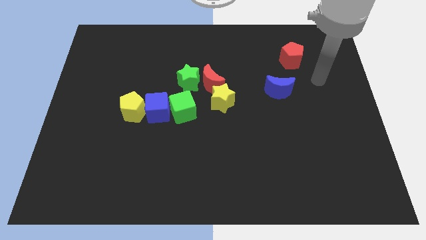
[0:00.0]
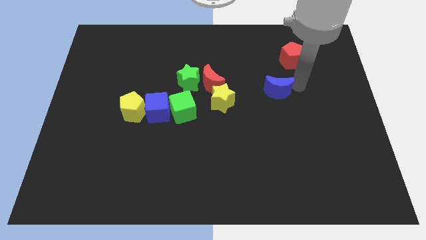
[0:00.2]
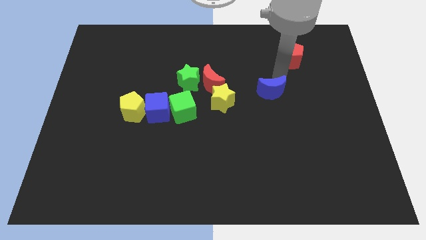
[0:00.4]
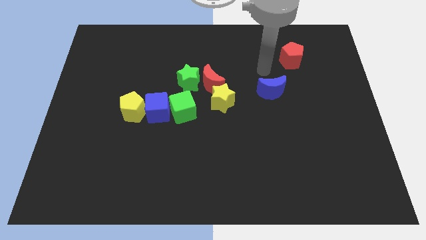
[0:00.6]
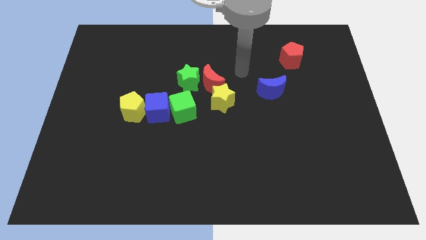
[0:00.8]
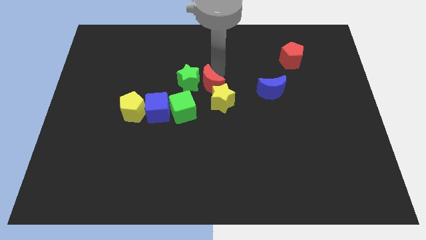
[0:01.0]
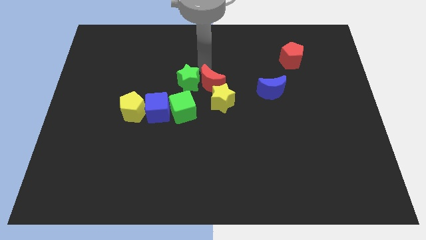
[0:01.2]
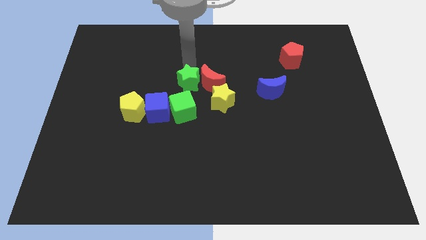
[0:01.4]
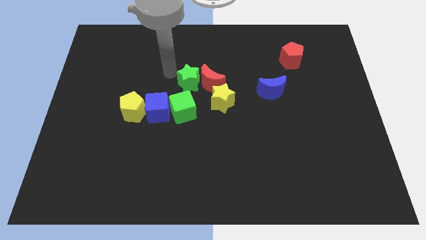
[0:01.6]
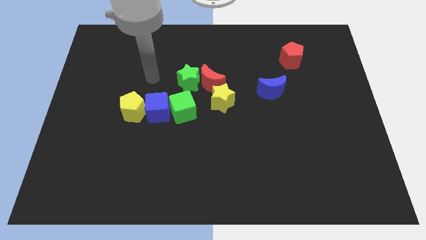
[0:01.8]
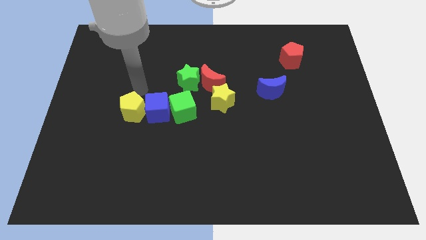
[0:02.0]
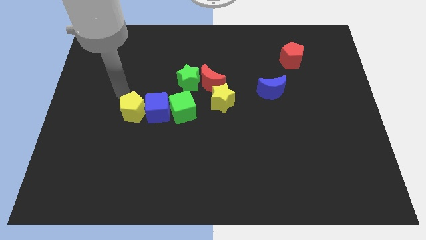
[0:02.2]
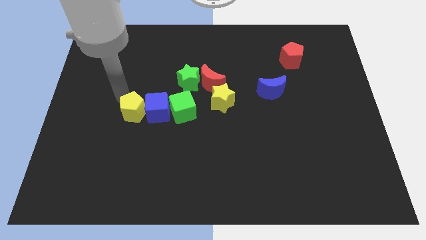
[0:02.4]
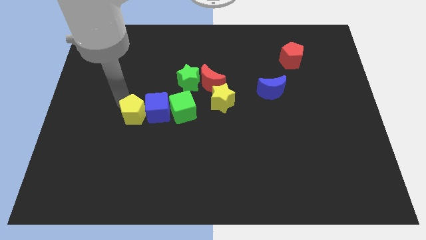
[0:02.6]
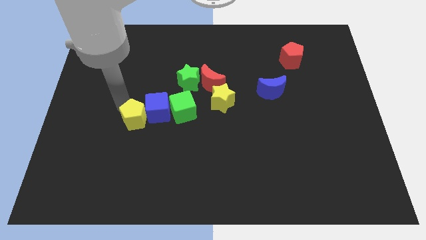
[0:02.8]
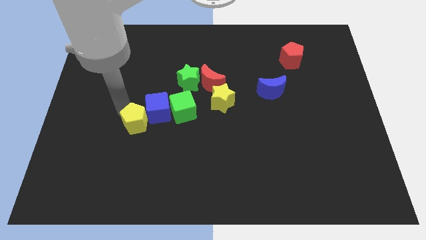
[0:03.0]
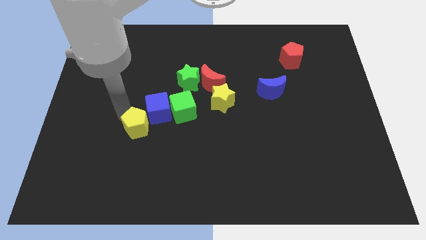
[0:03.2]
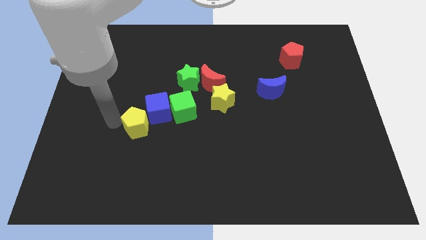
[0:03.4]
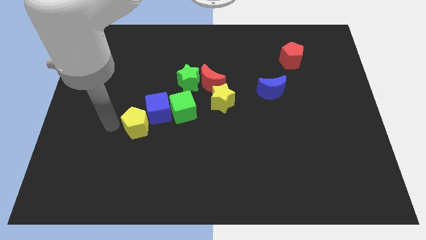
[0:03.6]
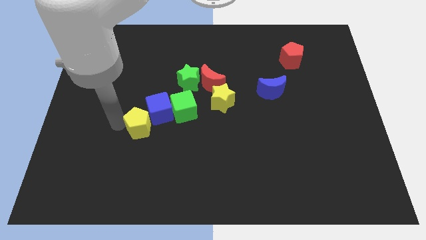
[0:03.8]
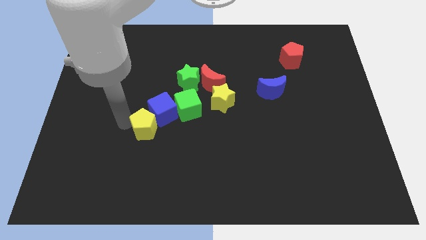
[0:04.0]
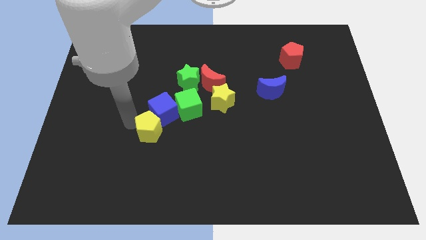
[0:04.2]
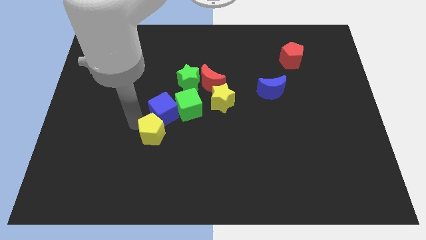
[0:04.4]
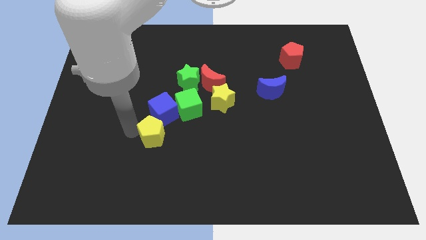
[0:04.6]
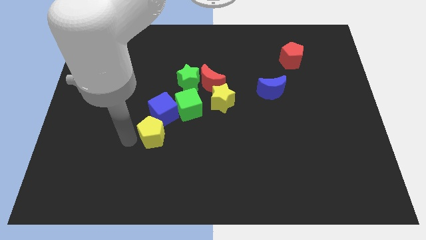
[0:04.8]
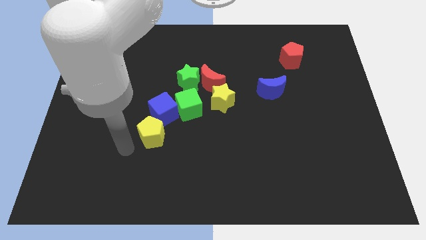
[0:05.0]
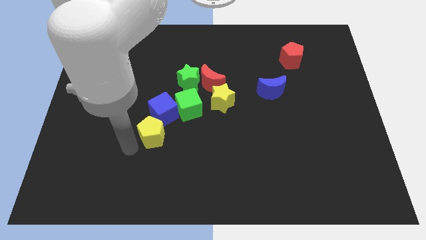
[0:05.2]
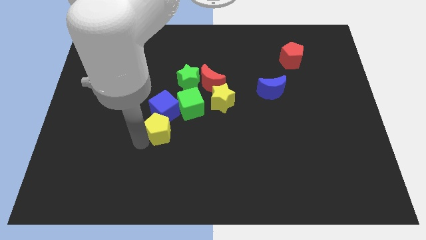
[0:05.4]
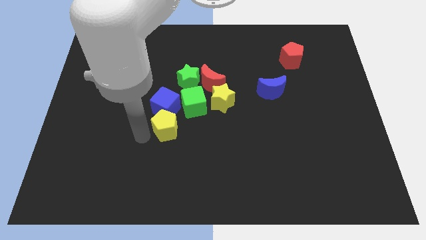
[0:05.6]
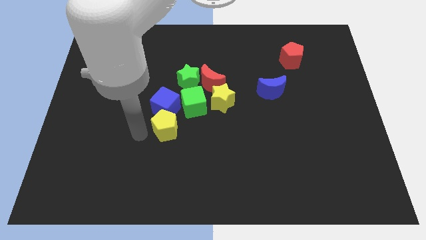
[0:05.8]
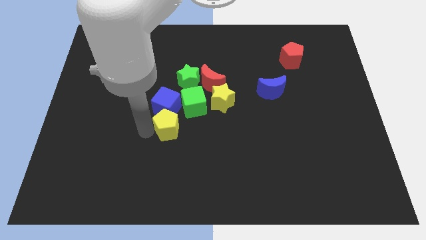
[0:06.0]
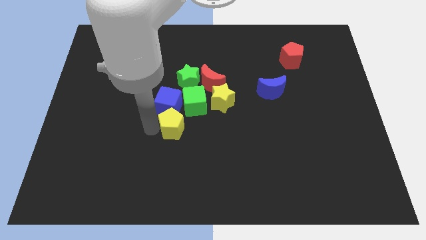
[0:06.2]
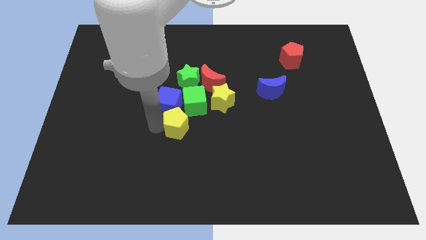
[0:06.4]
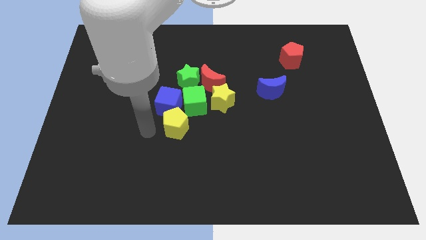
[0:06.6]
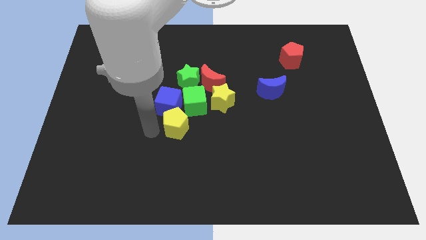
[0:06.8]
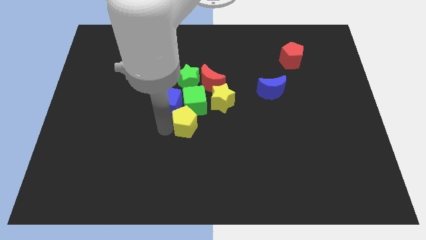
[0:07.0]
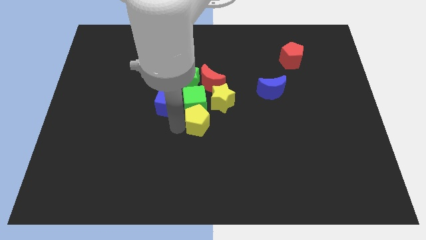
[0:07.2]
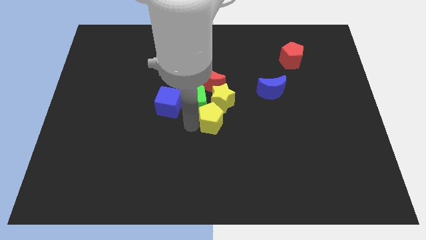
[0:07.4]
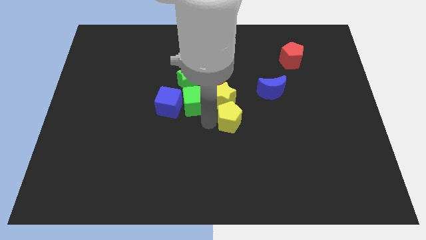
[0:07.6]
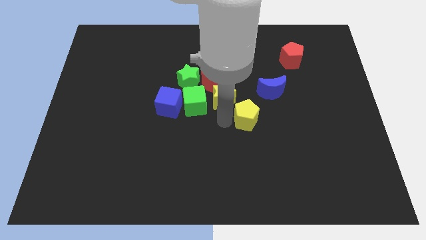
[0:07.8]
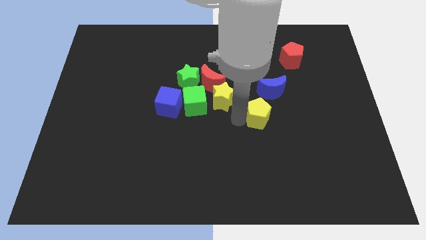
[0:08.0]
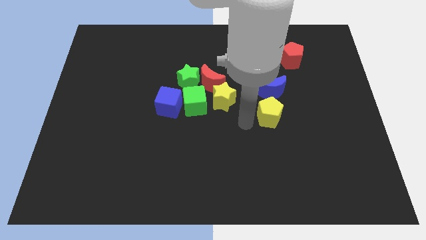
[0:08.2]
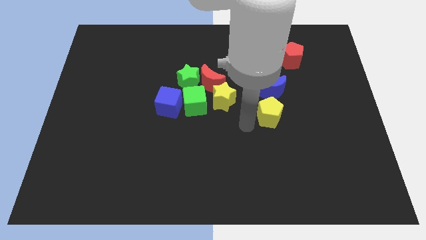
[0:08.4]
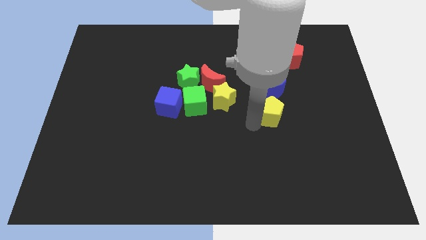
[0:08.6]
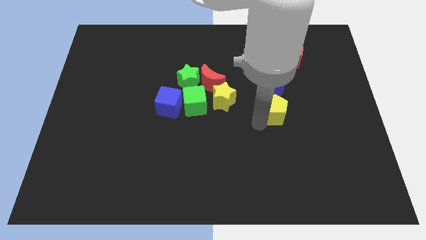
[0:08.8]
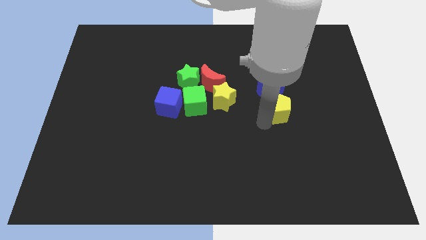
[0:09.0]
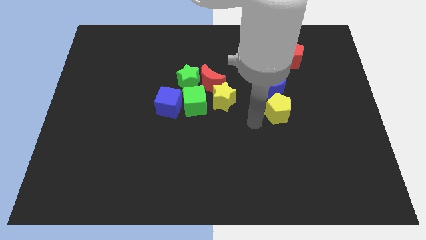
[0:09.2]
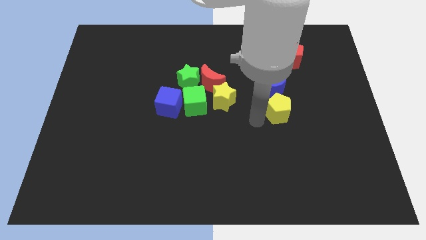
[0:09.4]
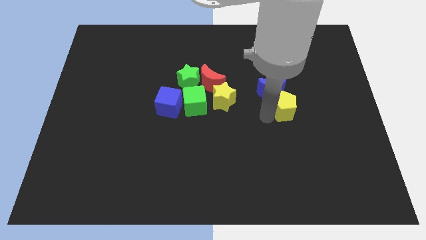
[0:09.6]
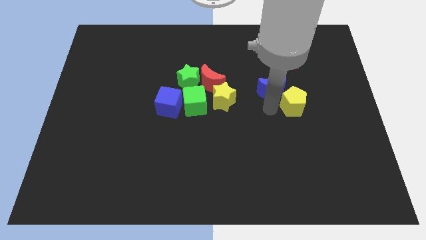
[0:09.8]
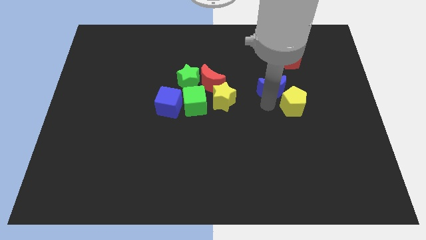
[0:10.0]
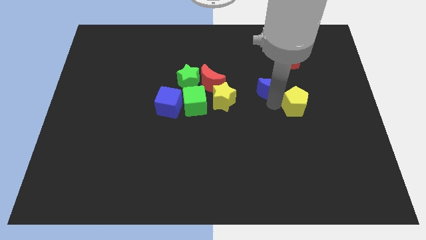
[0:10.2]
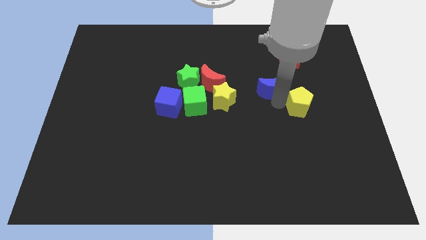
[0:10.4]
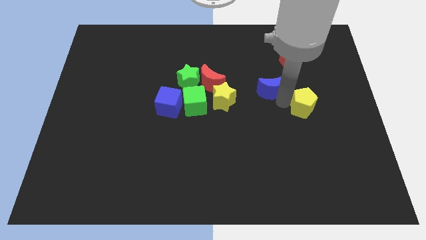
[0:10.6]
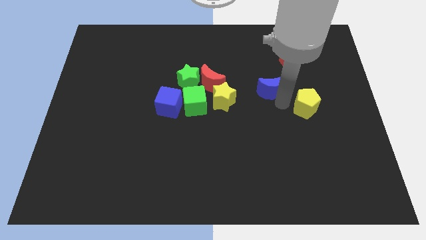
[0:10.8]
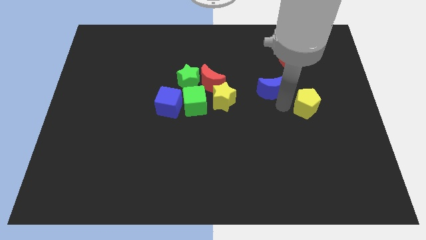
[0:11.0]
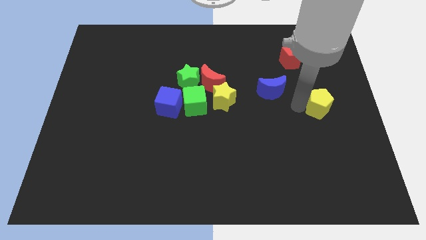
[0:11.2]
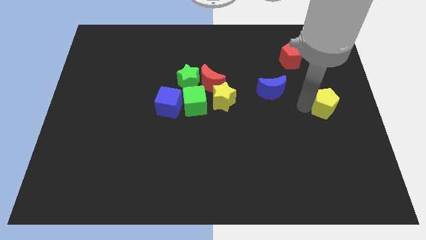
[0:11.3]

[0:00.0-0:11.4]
put the yellow pentagon to the right side of the board

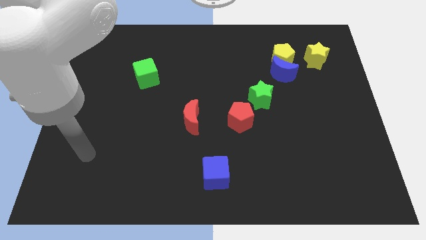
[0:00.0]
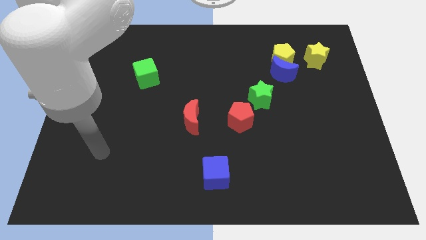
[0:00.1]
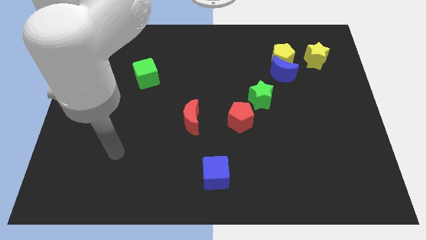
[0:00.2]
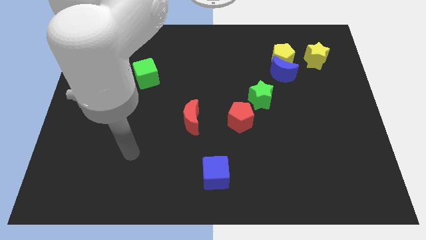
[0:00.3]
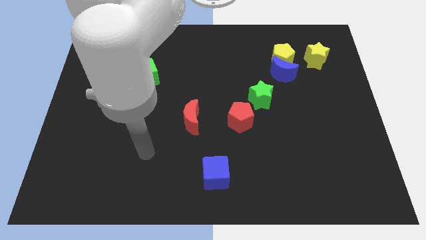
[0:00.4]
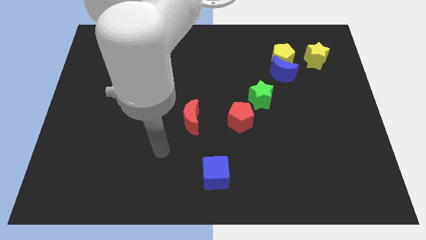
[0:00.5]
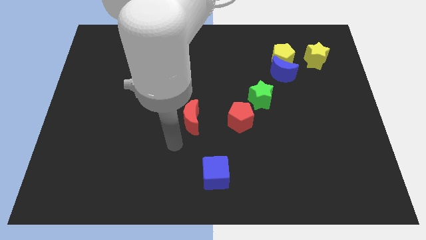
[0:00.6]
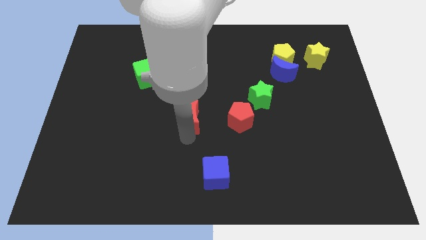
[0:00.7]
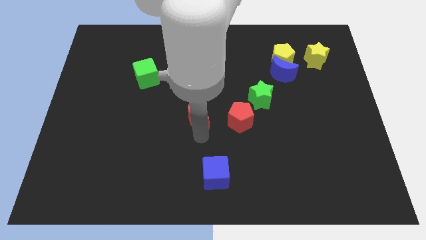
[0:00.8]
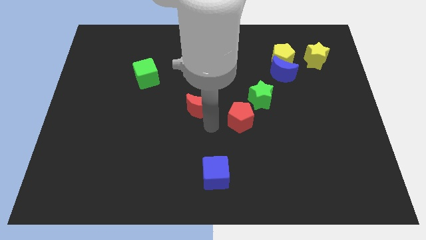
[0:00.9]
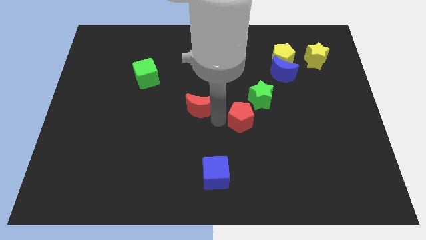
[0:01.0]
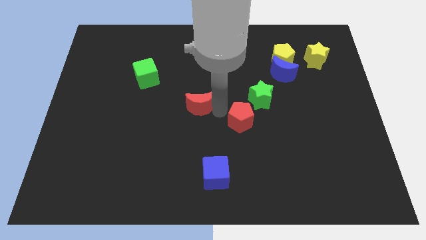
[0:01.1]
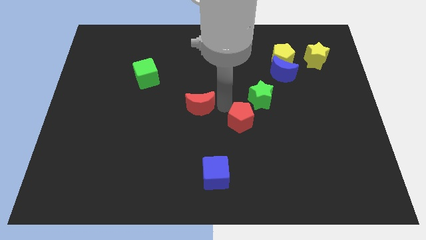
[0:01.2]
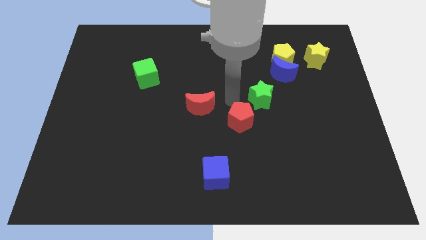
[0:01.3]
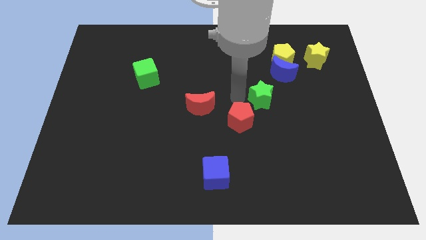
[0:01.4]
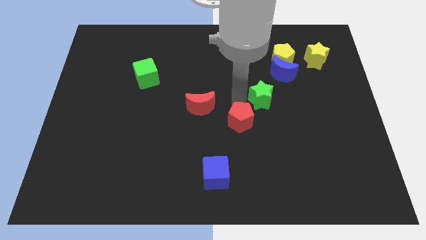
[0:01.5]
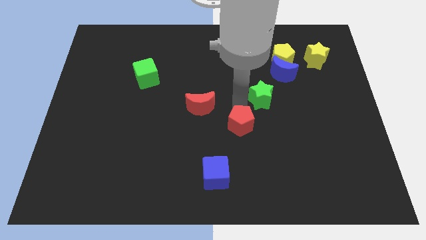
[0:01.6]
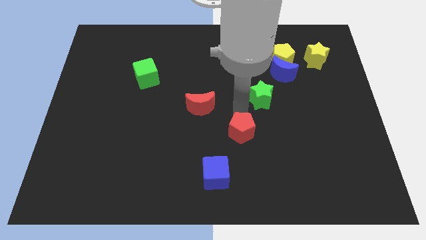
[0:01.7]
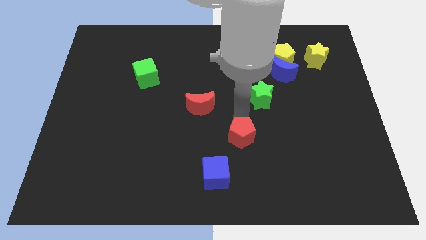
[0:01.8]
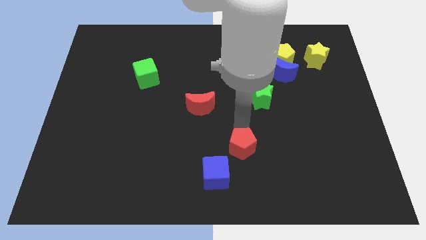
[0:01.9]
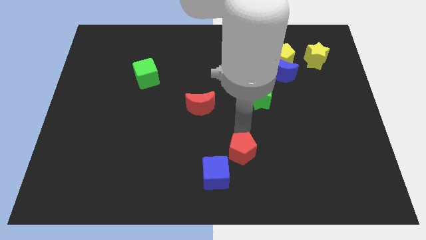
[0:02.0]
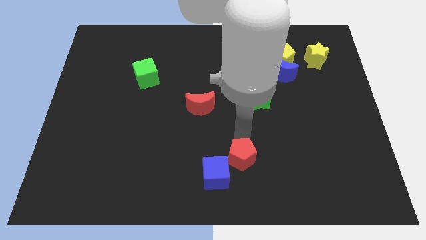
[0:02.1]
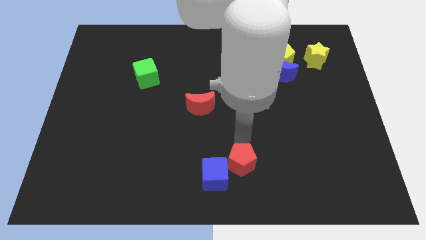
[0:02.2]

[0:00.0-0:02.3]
slide the red pentagon to the bottom
